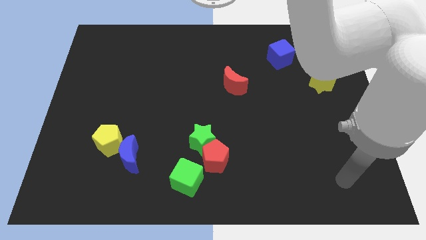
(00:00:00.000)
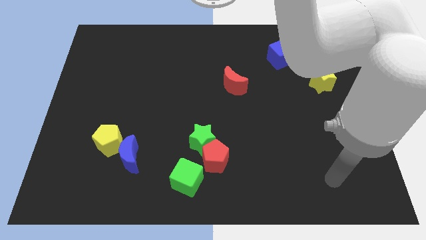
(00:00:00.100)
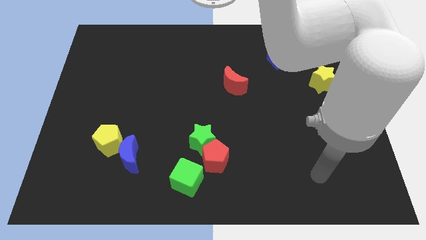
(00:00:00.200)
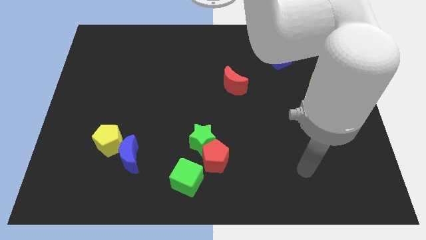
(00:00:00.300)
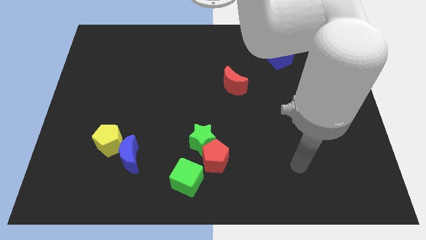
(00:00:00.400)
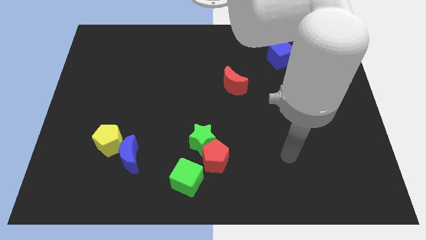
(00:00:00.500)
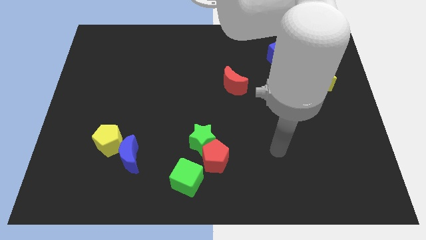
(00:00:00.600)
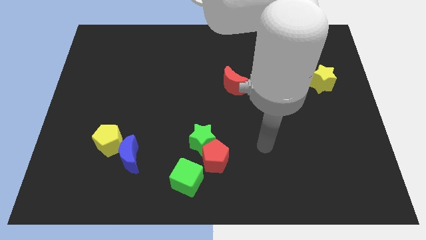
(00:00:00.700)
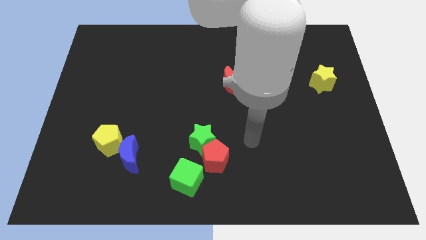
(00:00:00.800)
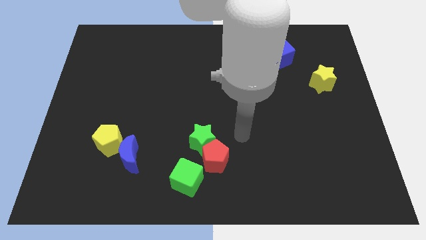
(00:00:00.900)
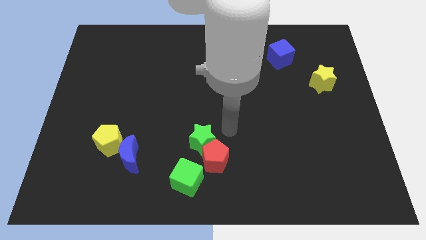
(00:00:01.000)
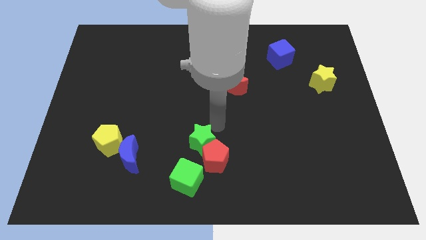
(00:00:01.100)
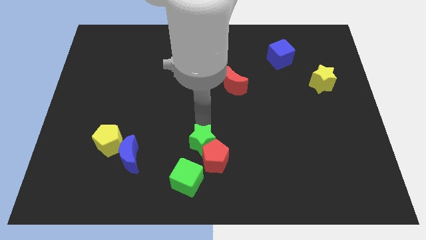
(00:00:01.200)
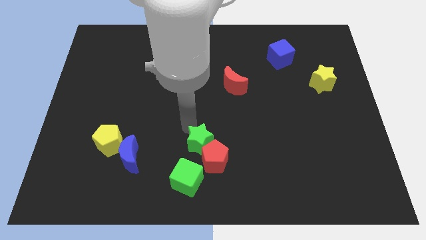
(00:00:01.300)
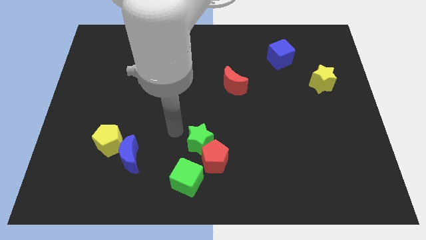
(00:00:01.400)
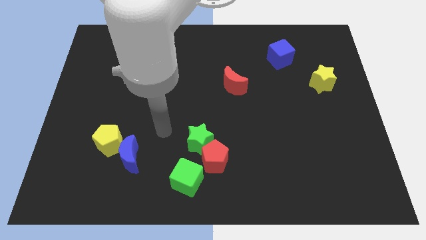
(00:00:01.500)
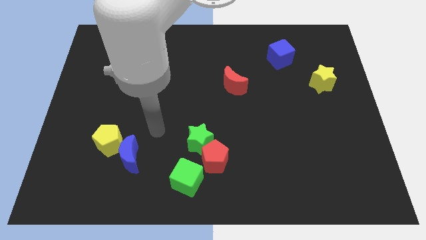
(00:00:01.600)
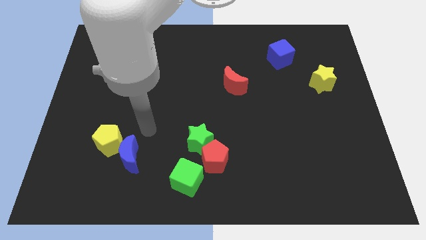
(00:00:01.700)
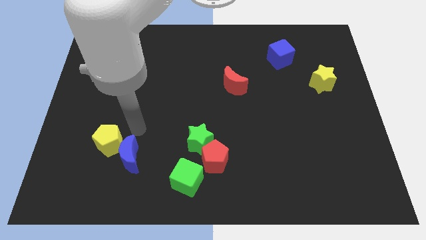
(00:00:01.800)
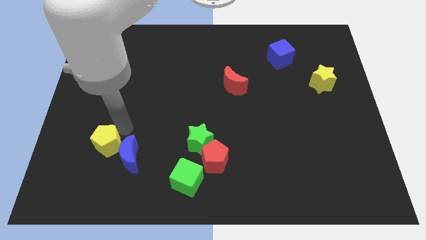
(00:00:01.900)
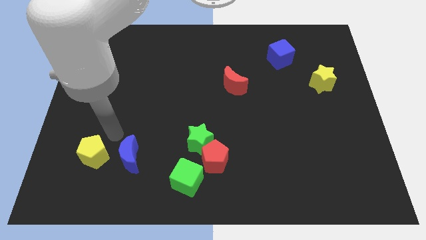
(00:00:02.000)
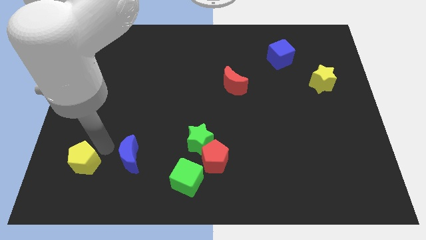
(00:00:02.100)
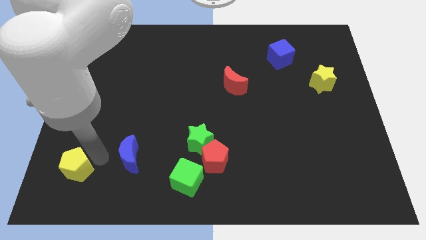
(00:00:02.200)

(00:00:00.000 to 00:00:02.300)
pull the blue moon apart from the yellow pentagon

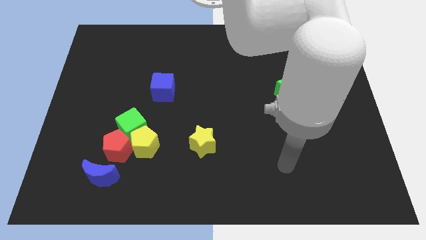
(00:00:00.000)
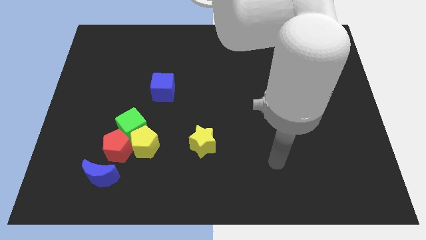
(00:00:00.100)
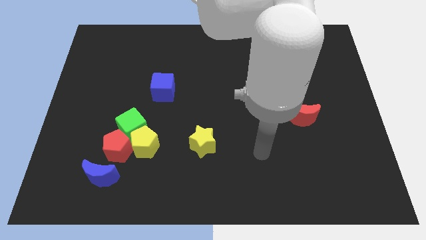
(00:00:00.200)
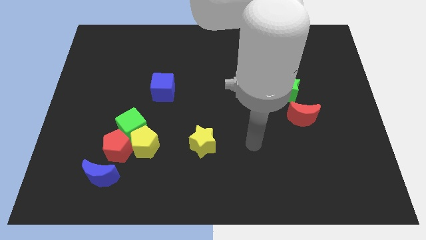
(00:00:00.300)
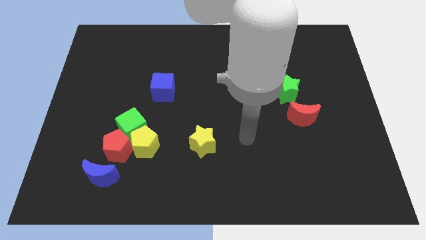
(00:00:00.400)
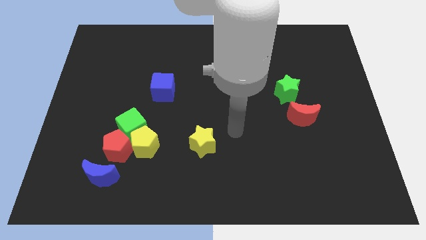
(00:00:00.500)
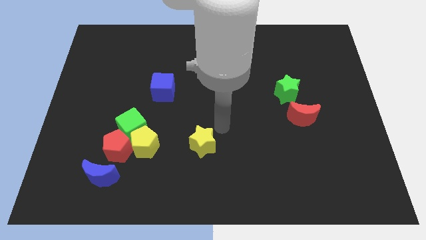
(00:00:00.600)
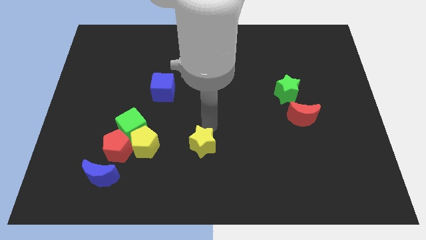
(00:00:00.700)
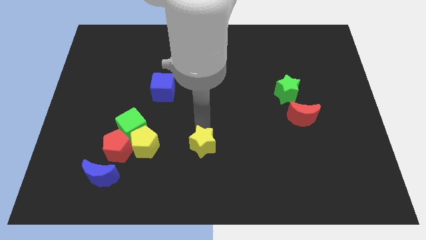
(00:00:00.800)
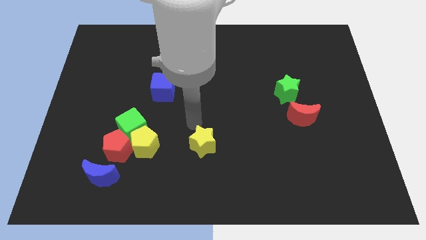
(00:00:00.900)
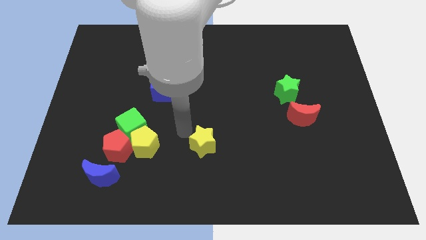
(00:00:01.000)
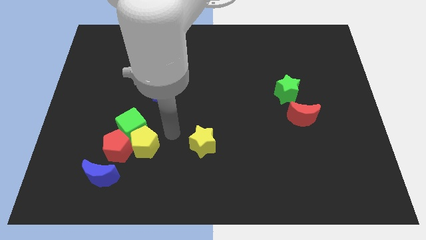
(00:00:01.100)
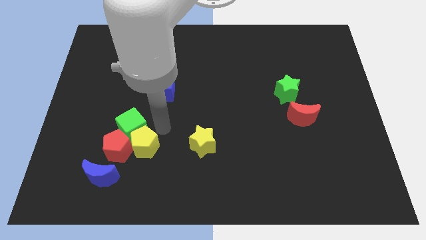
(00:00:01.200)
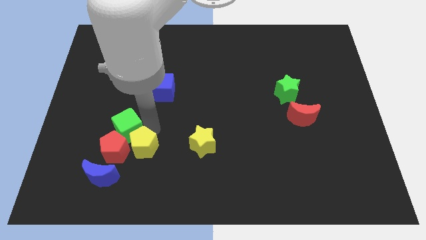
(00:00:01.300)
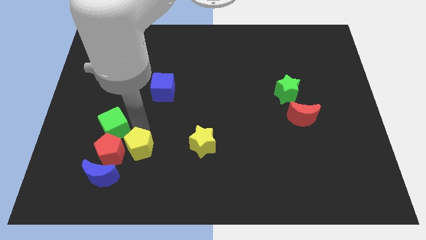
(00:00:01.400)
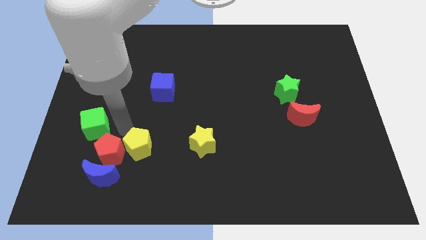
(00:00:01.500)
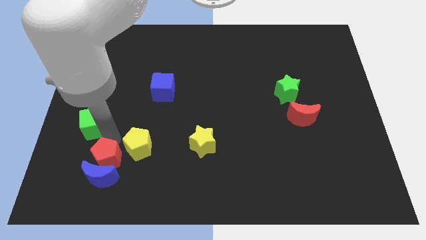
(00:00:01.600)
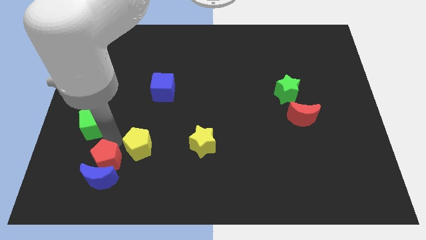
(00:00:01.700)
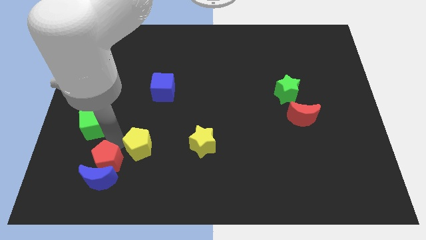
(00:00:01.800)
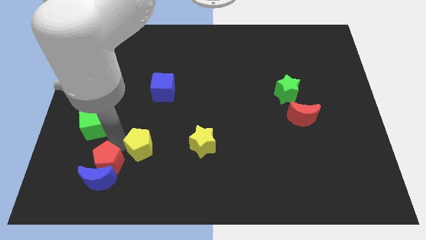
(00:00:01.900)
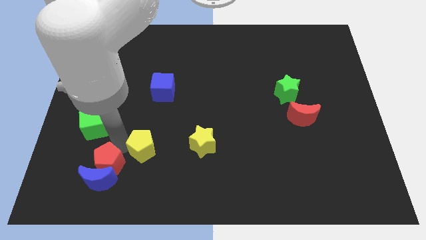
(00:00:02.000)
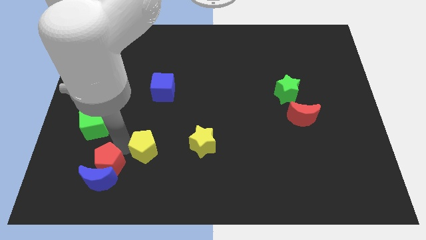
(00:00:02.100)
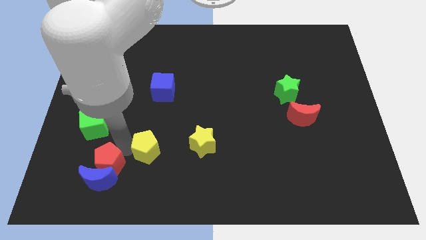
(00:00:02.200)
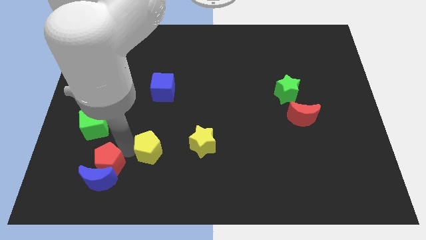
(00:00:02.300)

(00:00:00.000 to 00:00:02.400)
move the yellow pentagon away from the green cube and red pentagon

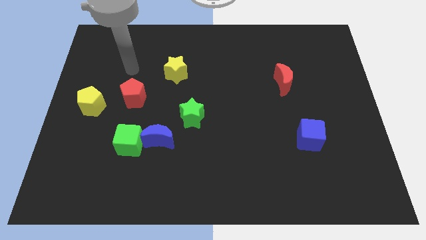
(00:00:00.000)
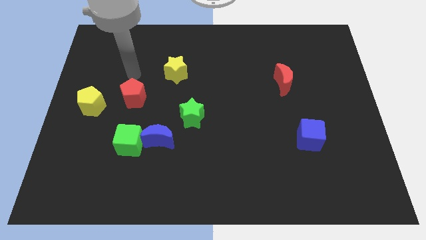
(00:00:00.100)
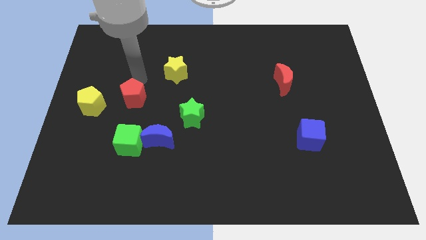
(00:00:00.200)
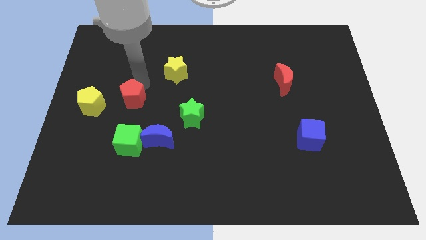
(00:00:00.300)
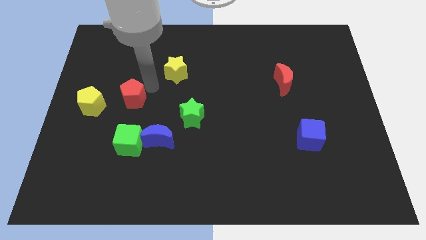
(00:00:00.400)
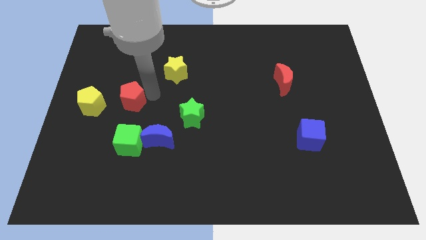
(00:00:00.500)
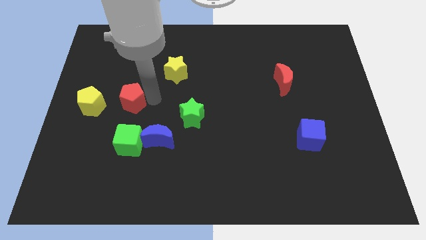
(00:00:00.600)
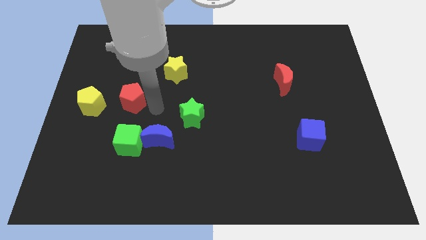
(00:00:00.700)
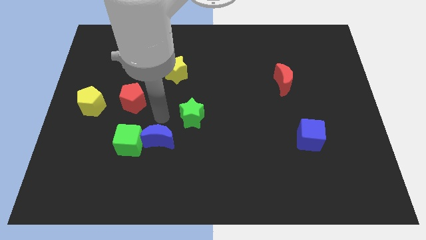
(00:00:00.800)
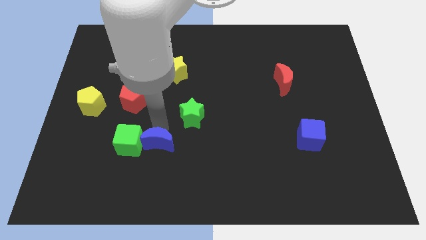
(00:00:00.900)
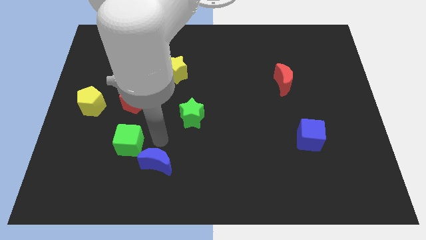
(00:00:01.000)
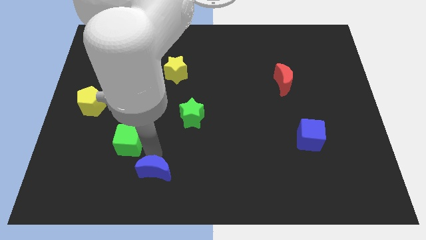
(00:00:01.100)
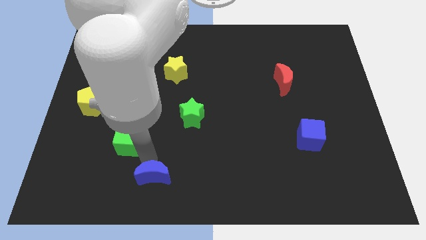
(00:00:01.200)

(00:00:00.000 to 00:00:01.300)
move the green cube away from the blue moon

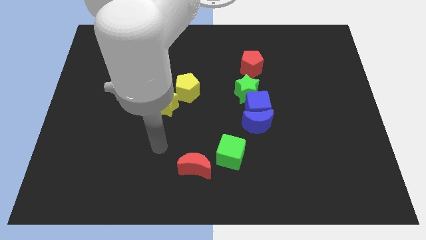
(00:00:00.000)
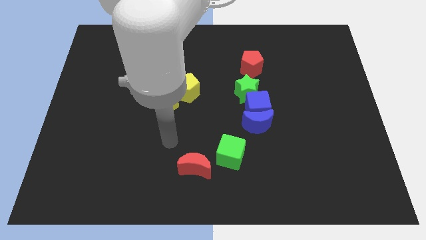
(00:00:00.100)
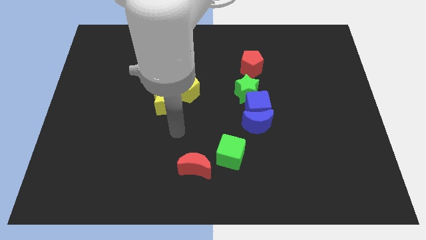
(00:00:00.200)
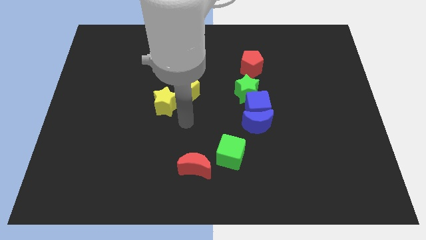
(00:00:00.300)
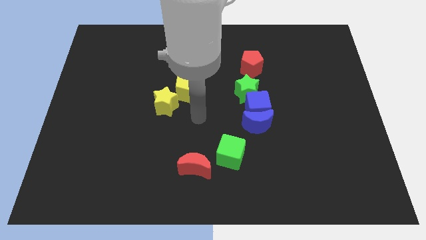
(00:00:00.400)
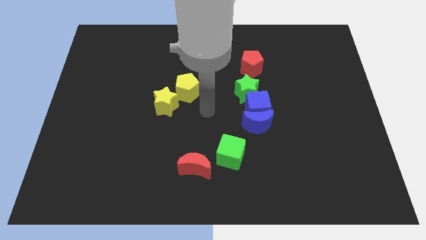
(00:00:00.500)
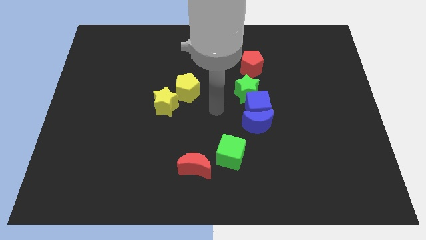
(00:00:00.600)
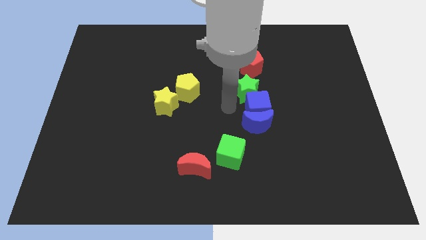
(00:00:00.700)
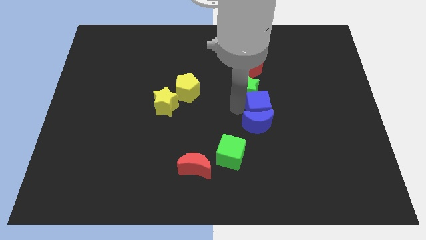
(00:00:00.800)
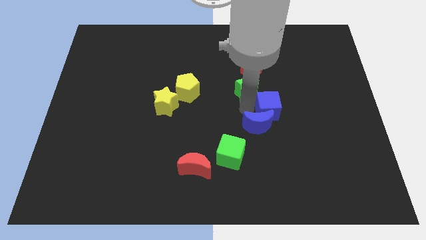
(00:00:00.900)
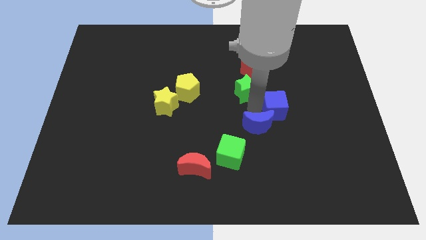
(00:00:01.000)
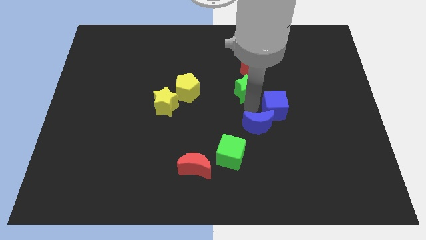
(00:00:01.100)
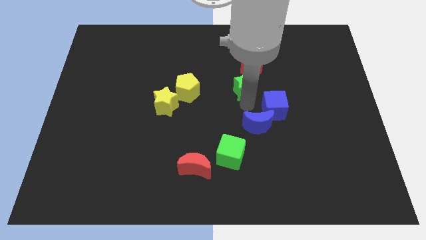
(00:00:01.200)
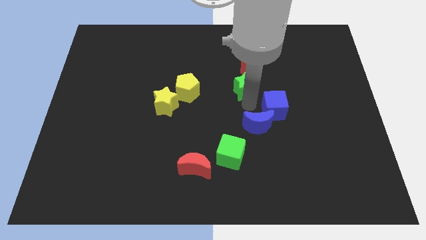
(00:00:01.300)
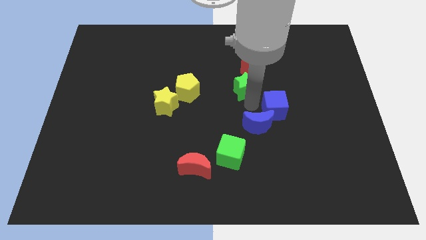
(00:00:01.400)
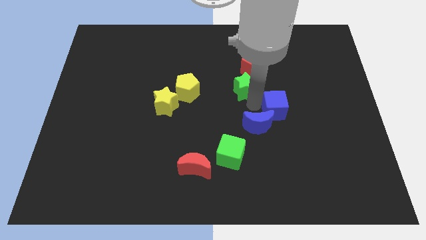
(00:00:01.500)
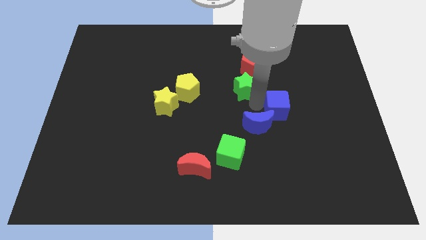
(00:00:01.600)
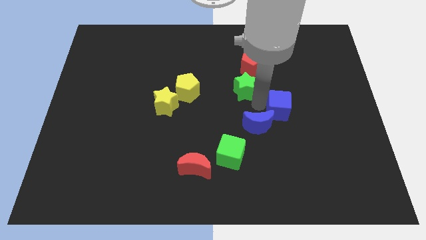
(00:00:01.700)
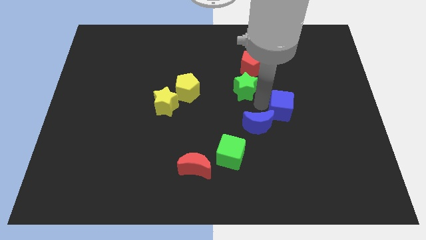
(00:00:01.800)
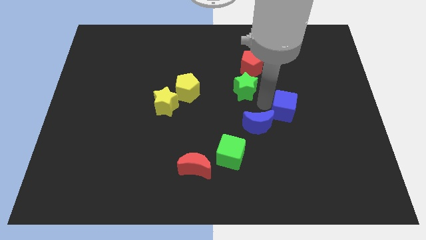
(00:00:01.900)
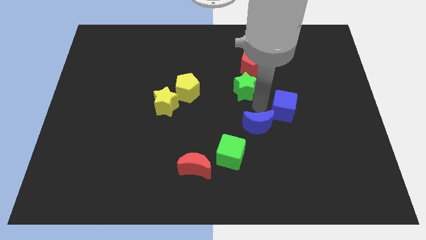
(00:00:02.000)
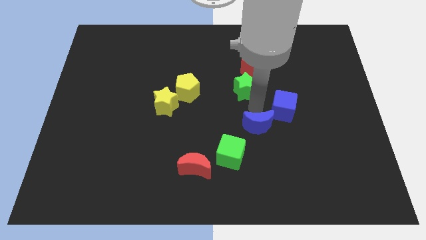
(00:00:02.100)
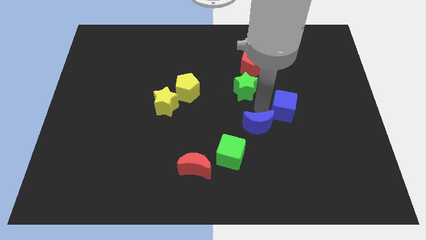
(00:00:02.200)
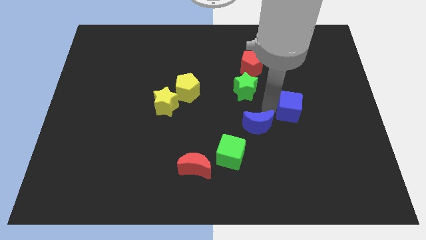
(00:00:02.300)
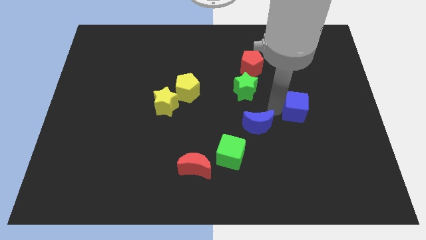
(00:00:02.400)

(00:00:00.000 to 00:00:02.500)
move the blue cube away from the blue moon and green star

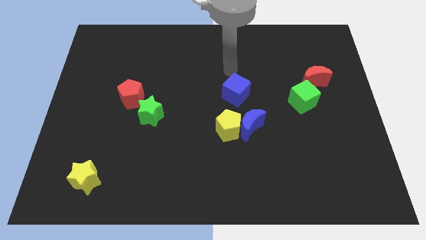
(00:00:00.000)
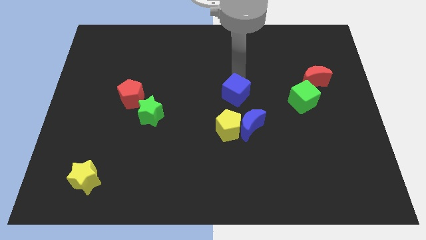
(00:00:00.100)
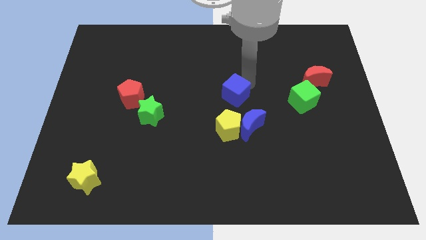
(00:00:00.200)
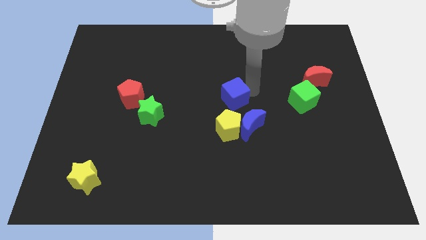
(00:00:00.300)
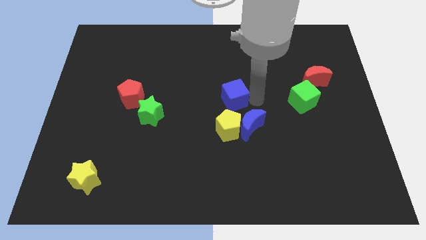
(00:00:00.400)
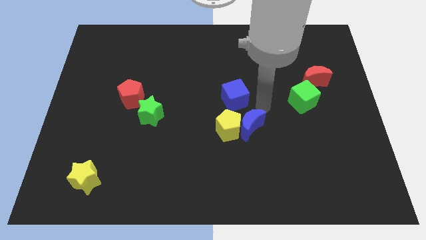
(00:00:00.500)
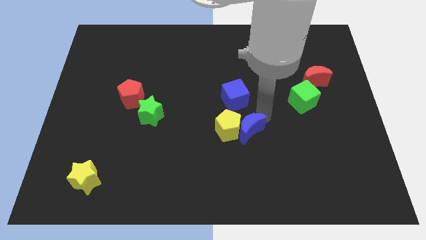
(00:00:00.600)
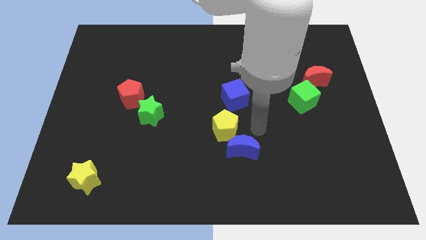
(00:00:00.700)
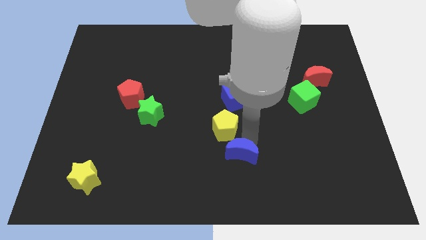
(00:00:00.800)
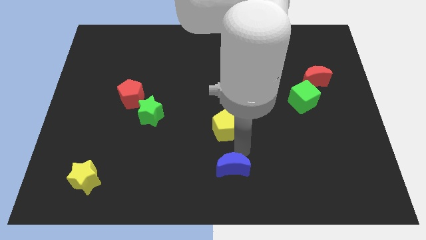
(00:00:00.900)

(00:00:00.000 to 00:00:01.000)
pull the yellow pentagon apart from the blue moon
